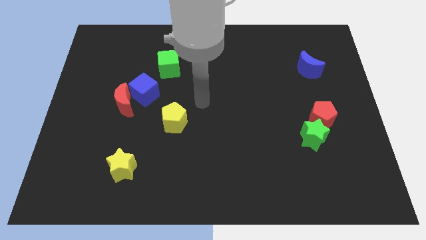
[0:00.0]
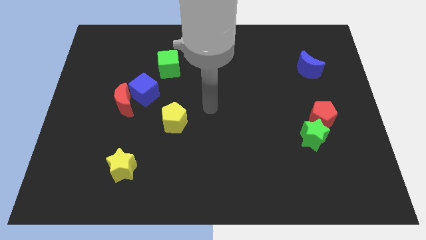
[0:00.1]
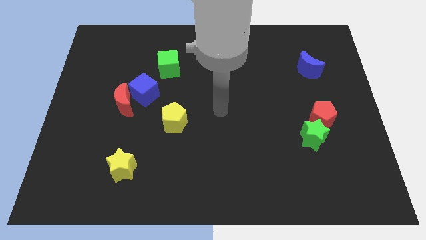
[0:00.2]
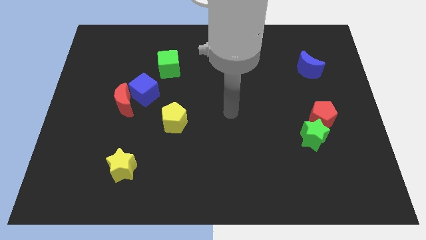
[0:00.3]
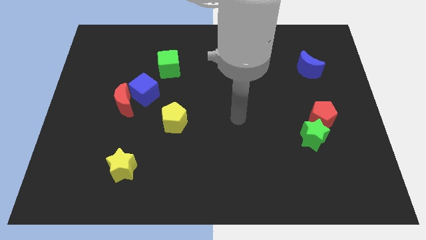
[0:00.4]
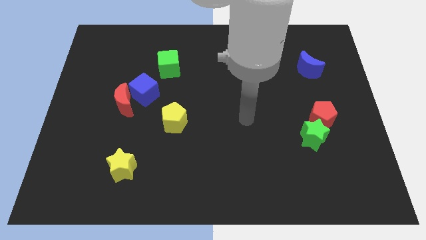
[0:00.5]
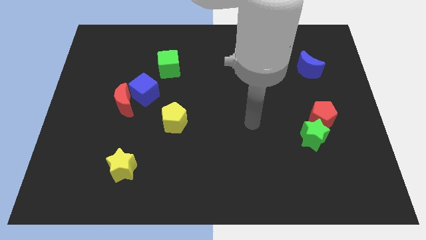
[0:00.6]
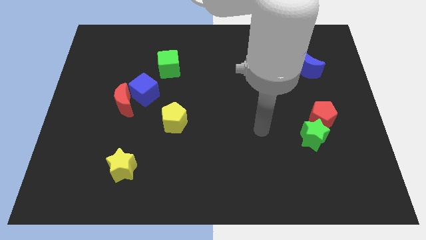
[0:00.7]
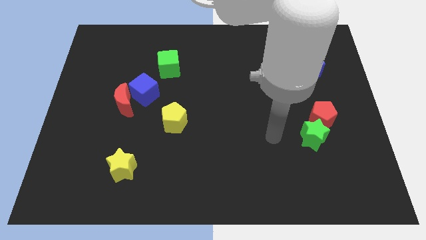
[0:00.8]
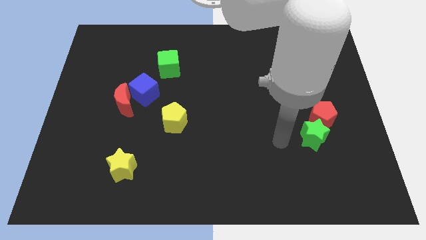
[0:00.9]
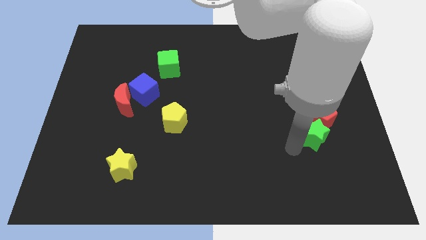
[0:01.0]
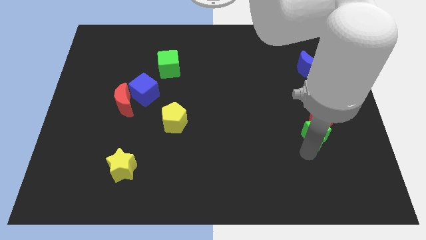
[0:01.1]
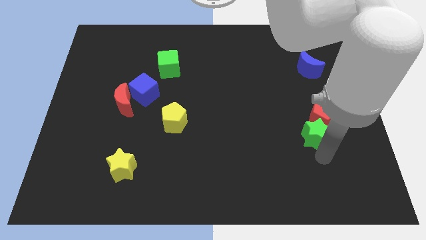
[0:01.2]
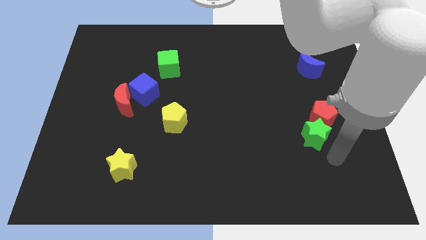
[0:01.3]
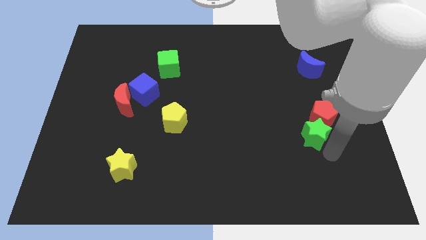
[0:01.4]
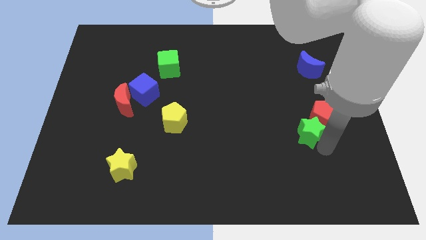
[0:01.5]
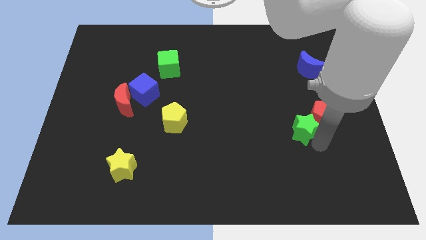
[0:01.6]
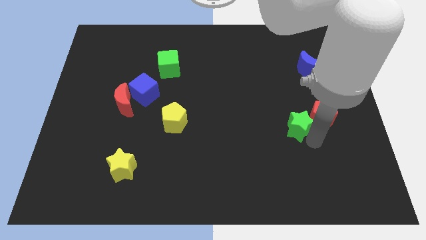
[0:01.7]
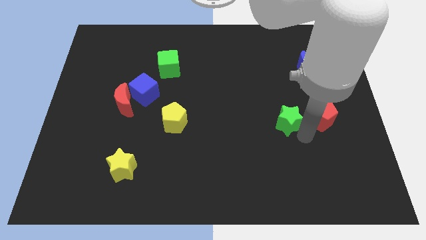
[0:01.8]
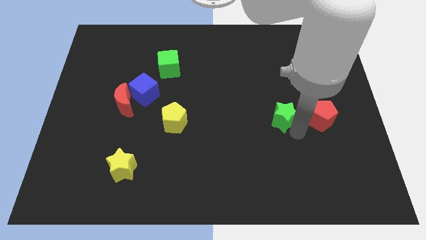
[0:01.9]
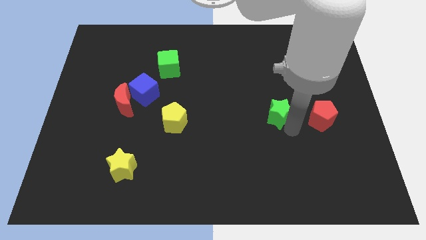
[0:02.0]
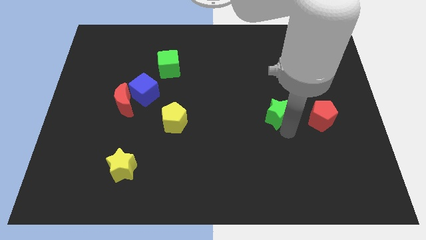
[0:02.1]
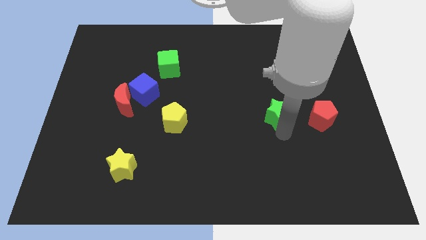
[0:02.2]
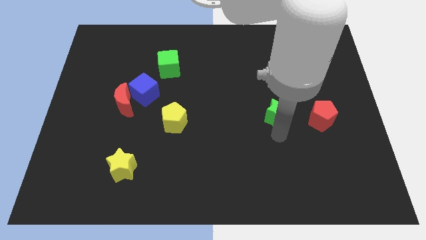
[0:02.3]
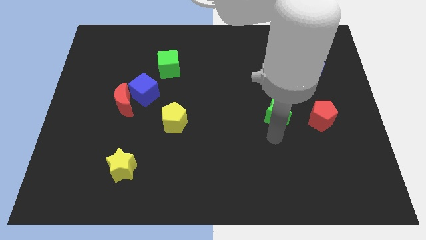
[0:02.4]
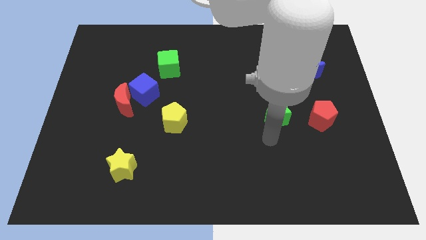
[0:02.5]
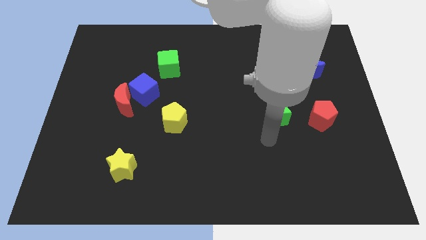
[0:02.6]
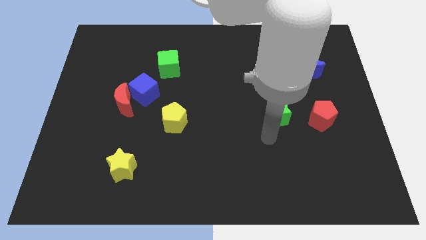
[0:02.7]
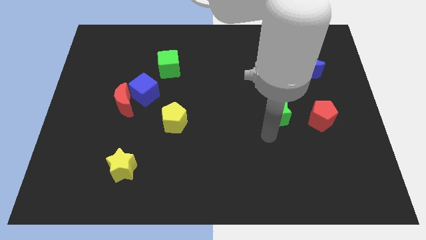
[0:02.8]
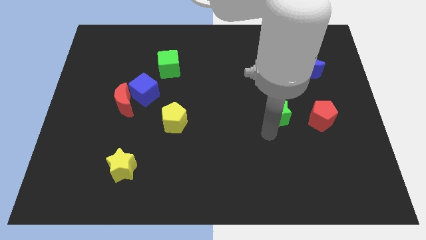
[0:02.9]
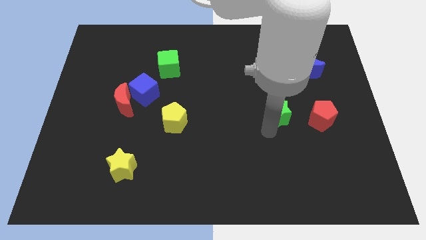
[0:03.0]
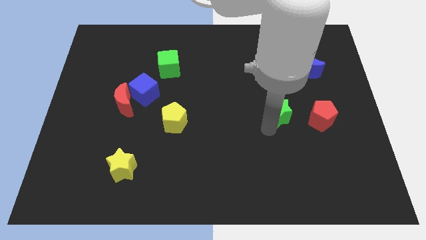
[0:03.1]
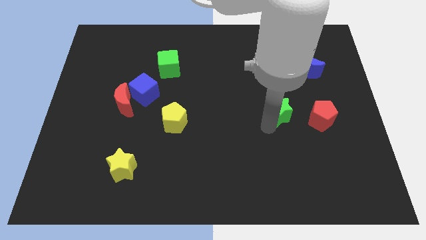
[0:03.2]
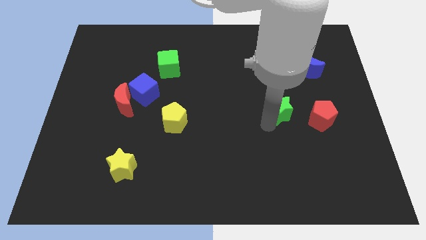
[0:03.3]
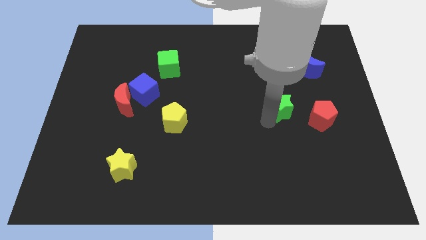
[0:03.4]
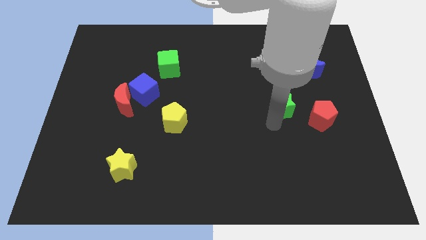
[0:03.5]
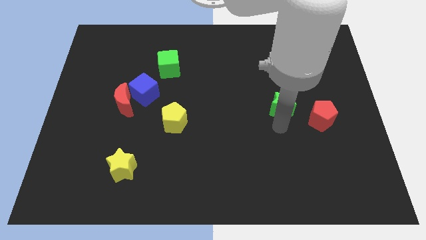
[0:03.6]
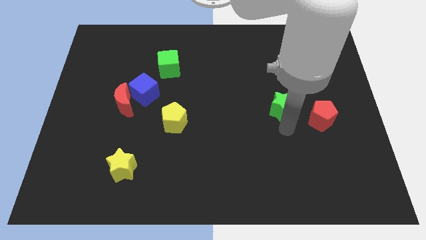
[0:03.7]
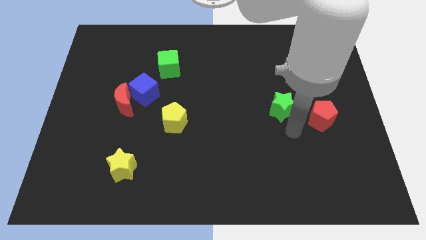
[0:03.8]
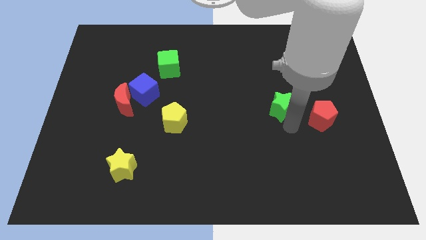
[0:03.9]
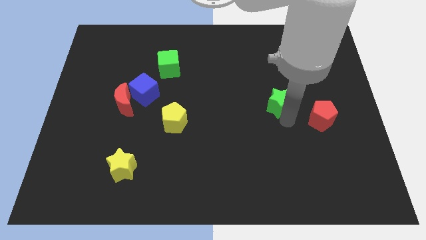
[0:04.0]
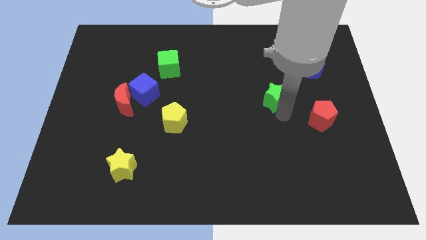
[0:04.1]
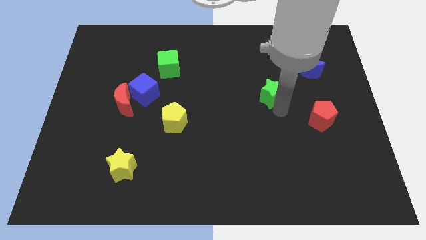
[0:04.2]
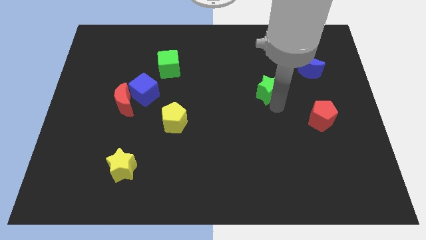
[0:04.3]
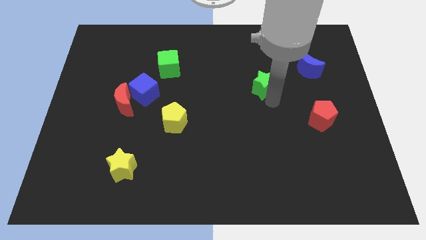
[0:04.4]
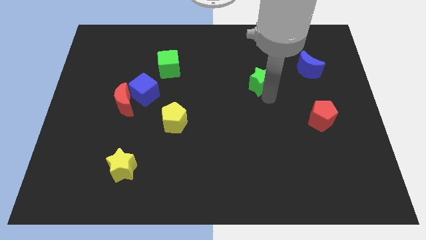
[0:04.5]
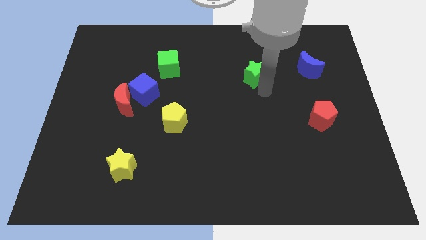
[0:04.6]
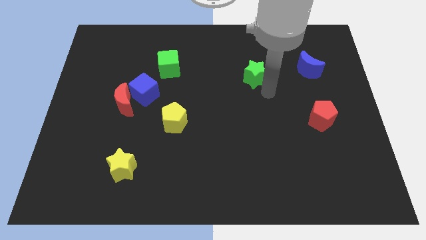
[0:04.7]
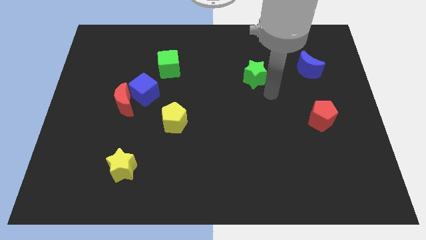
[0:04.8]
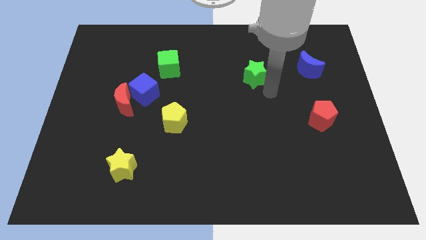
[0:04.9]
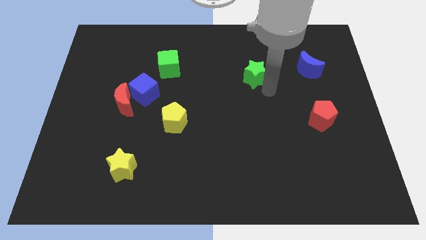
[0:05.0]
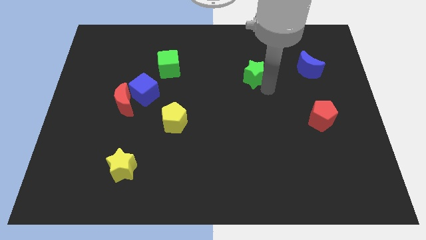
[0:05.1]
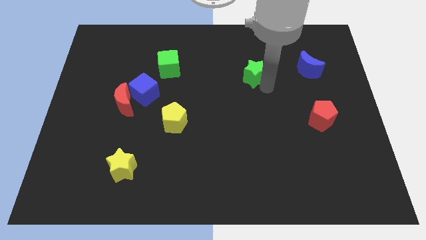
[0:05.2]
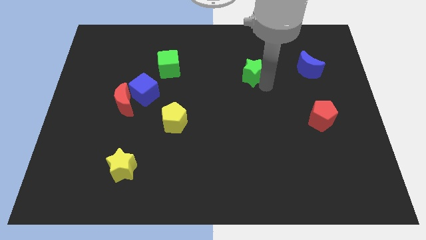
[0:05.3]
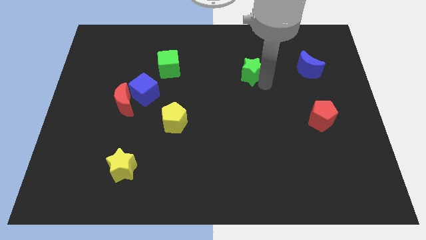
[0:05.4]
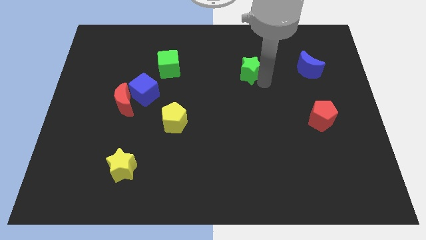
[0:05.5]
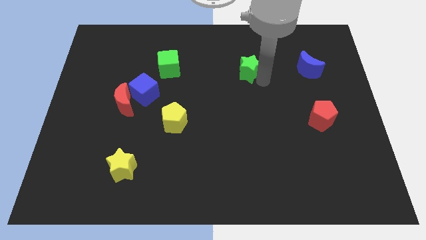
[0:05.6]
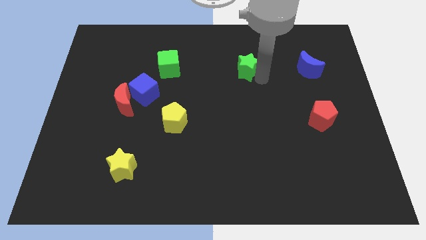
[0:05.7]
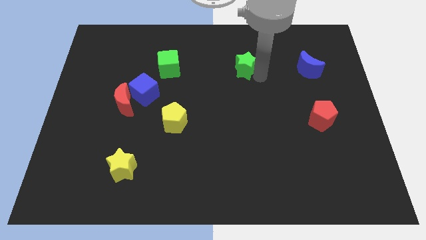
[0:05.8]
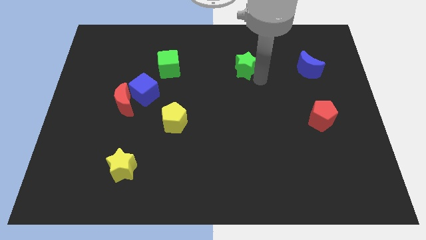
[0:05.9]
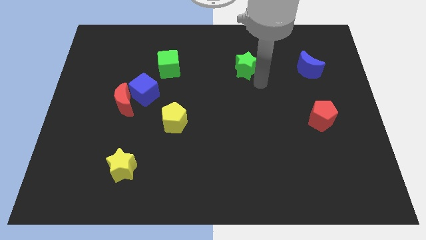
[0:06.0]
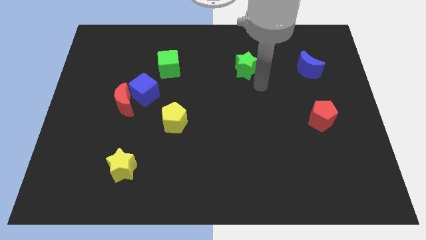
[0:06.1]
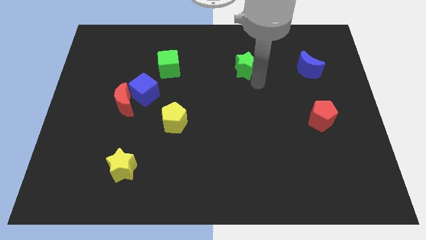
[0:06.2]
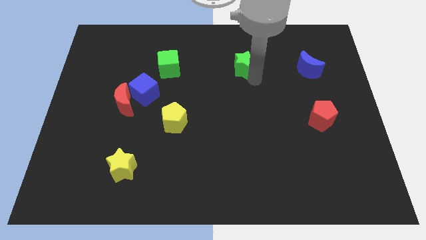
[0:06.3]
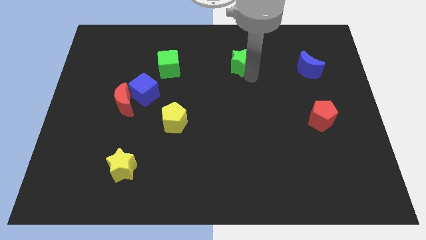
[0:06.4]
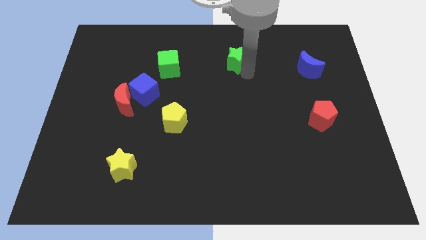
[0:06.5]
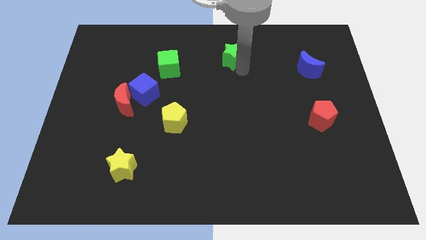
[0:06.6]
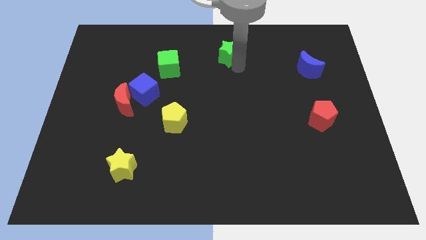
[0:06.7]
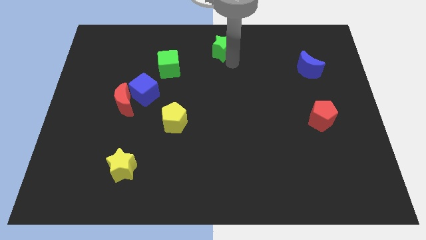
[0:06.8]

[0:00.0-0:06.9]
push the green star to the towards your base
